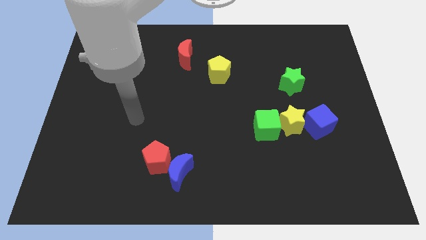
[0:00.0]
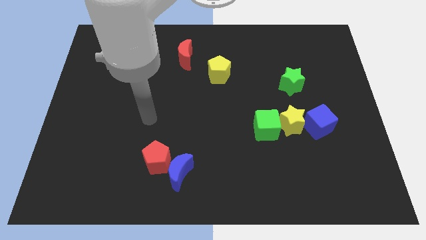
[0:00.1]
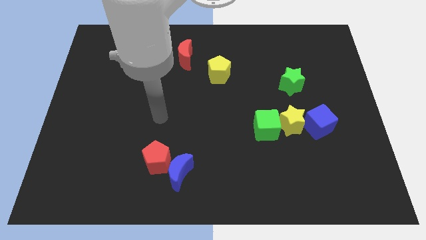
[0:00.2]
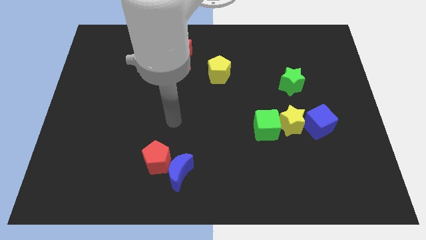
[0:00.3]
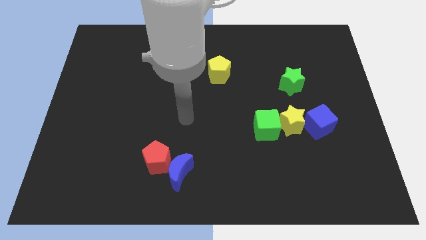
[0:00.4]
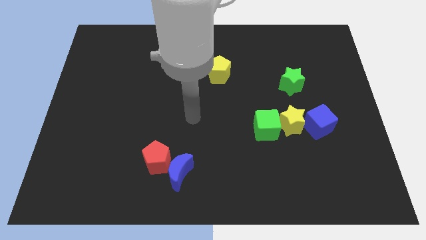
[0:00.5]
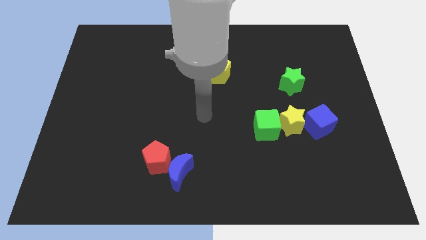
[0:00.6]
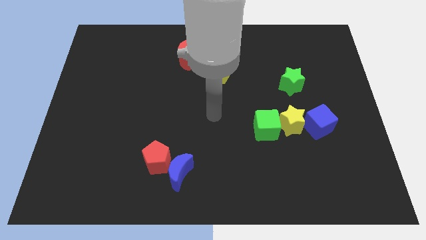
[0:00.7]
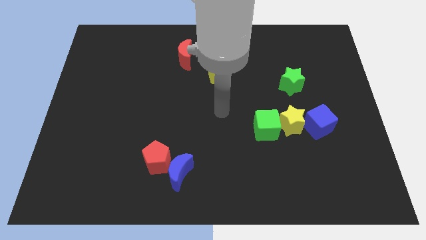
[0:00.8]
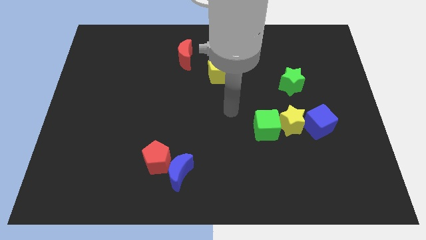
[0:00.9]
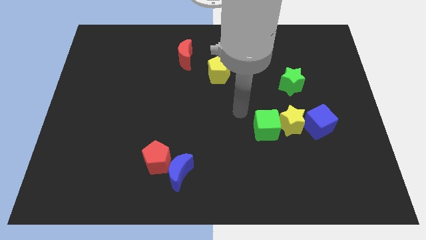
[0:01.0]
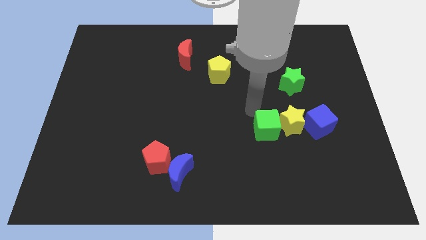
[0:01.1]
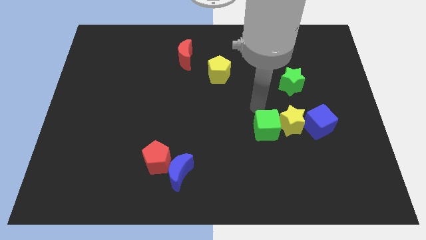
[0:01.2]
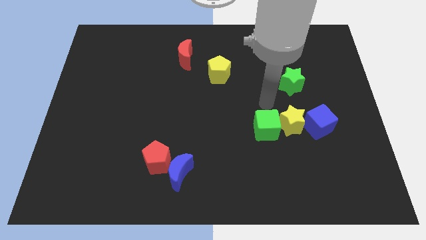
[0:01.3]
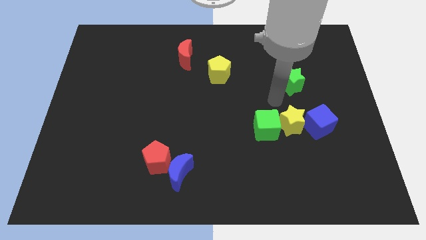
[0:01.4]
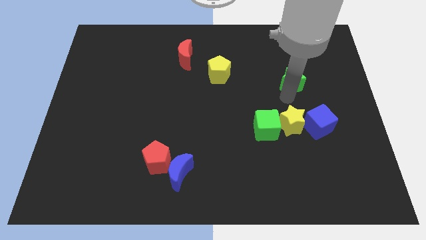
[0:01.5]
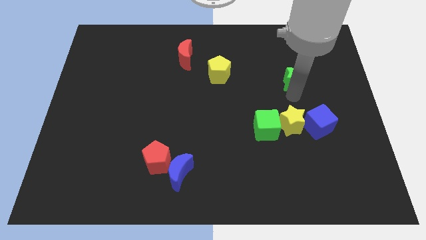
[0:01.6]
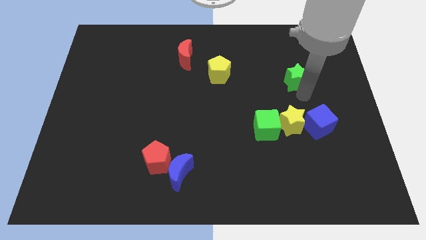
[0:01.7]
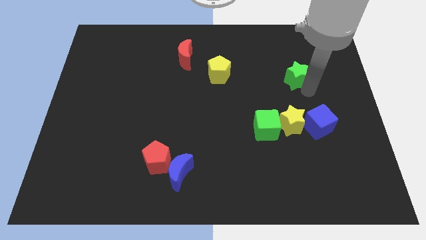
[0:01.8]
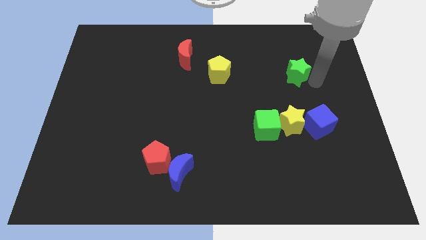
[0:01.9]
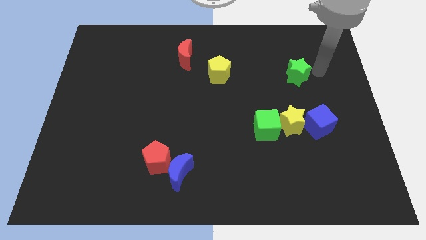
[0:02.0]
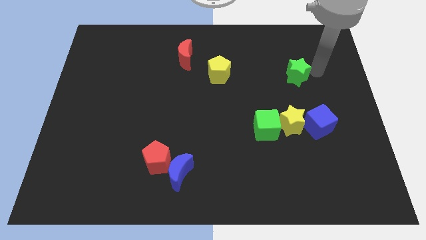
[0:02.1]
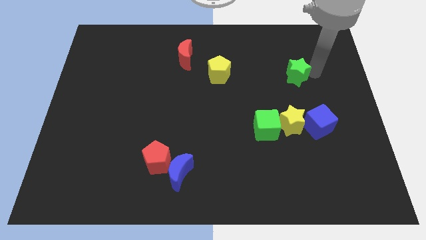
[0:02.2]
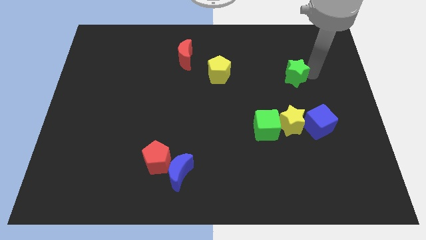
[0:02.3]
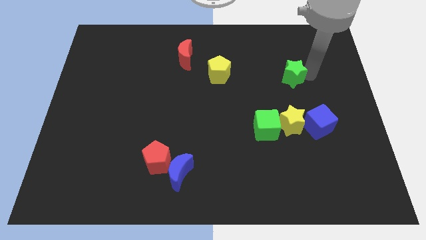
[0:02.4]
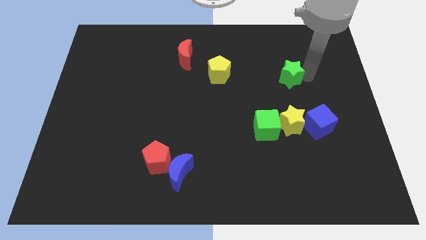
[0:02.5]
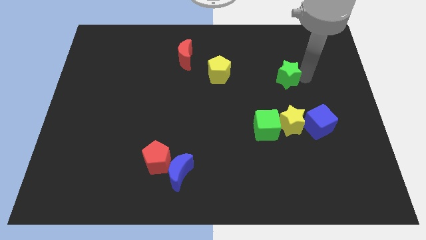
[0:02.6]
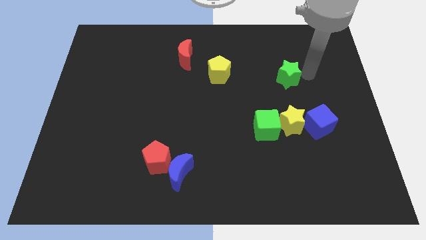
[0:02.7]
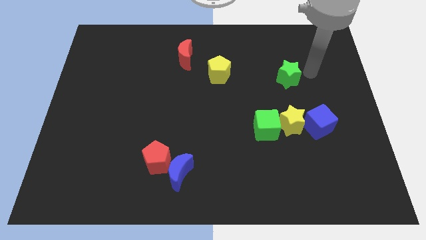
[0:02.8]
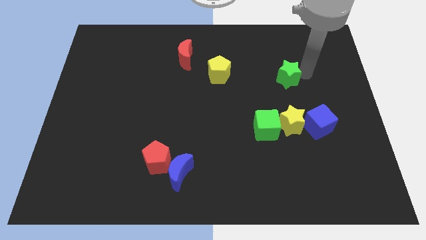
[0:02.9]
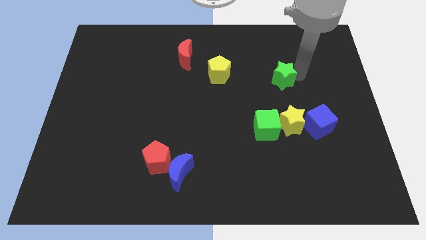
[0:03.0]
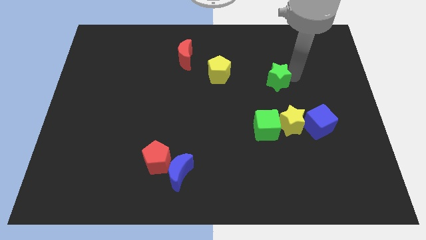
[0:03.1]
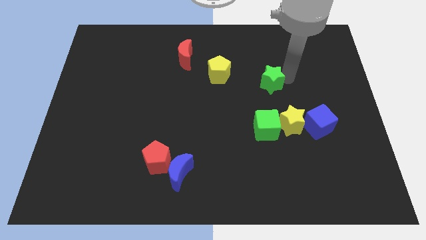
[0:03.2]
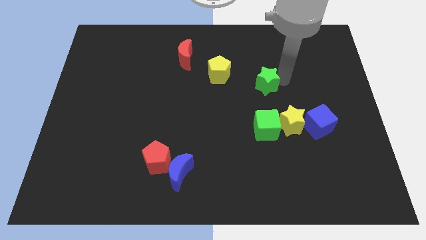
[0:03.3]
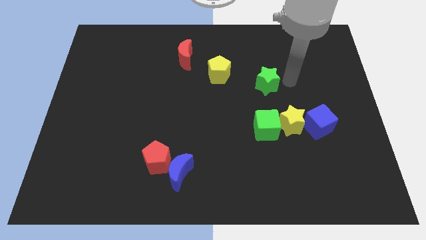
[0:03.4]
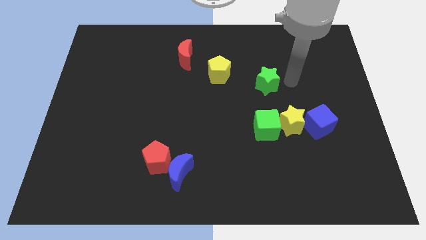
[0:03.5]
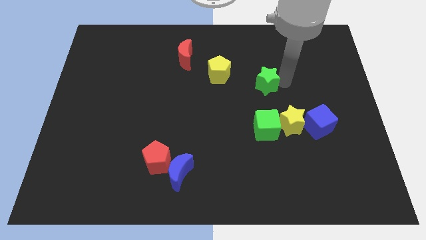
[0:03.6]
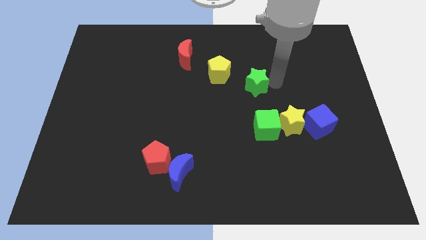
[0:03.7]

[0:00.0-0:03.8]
move the green star a little bit left

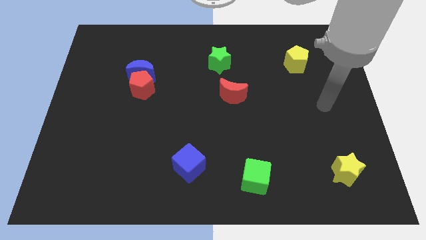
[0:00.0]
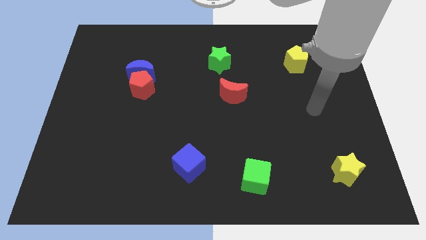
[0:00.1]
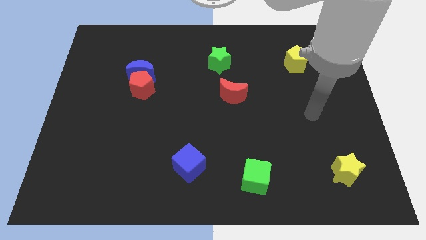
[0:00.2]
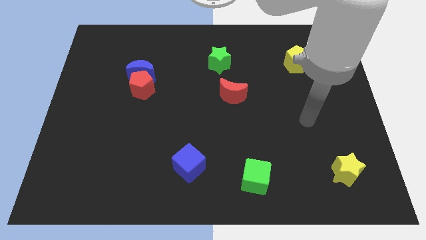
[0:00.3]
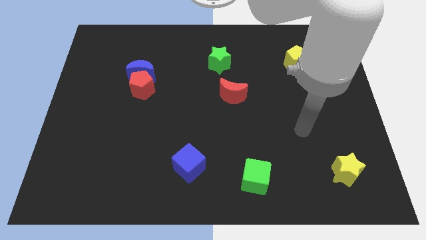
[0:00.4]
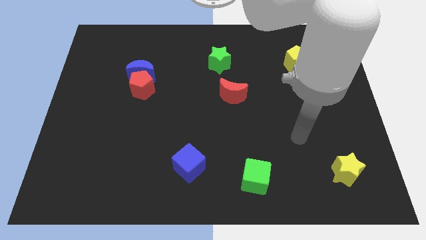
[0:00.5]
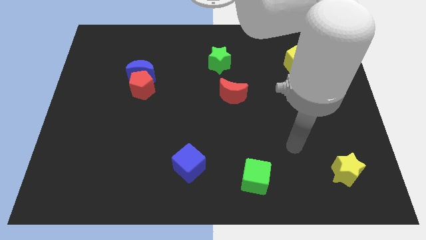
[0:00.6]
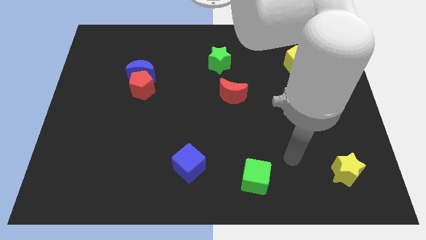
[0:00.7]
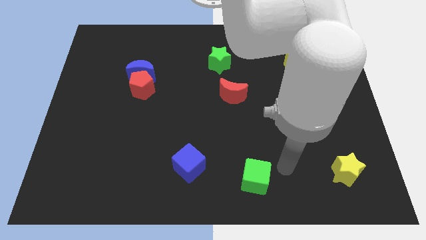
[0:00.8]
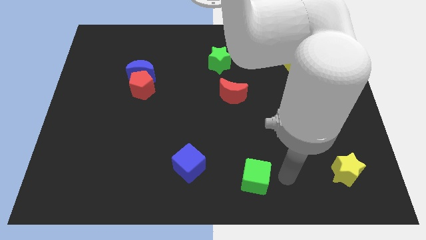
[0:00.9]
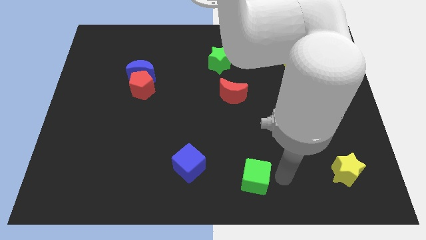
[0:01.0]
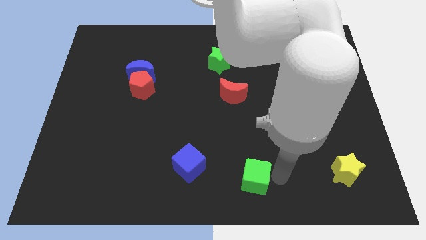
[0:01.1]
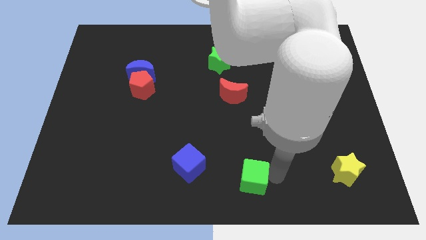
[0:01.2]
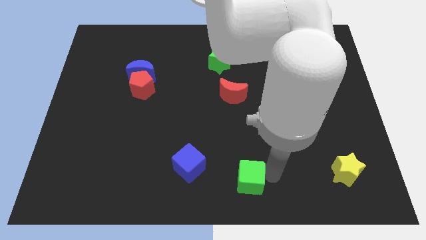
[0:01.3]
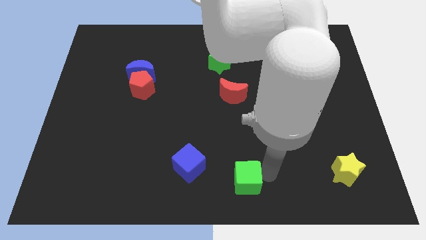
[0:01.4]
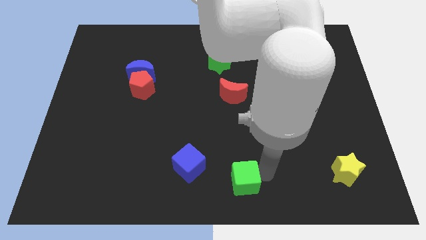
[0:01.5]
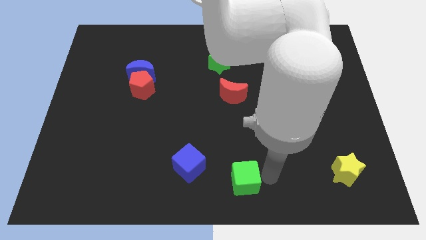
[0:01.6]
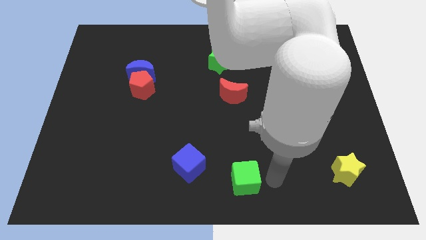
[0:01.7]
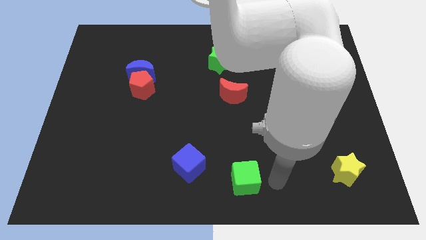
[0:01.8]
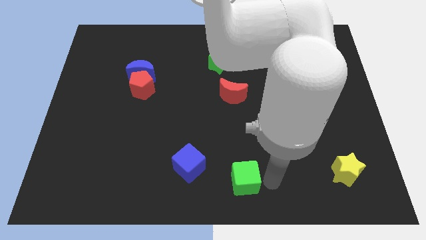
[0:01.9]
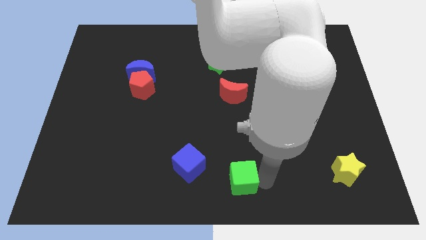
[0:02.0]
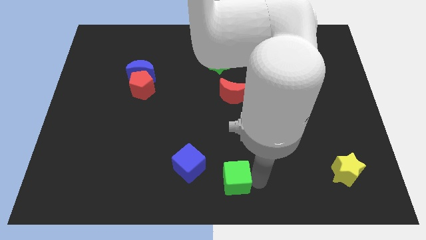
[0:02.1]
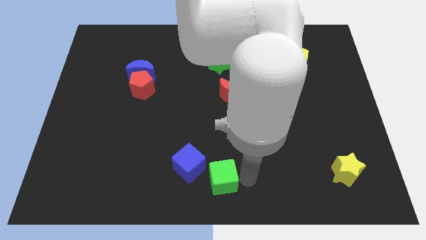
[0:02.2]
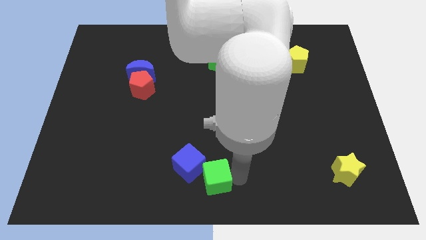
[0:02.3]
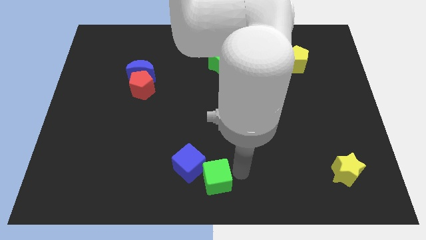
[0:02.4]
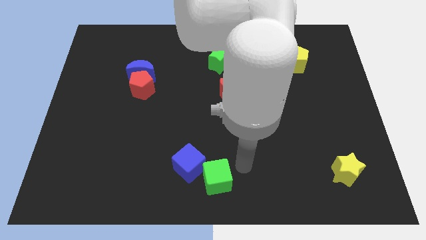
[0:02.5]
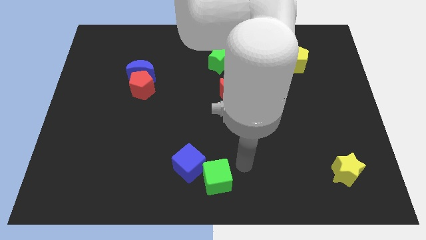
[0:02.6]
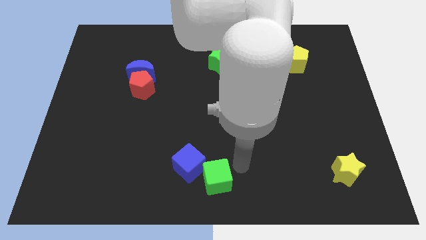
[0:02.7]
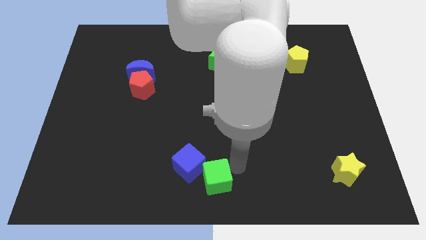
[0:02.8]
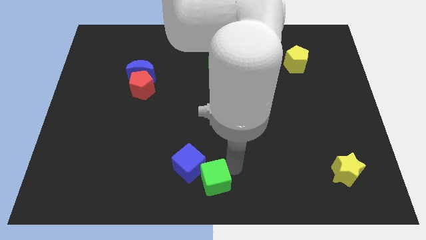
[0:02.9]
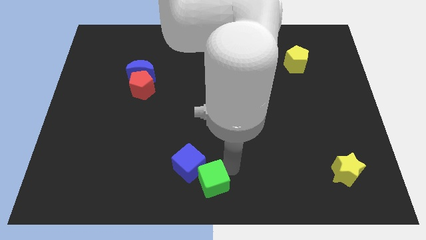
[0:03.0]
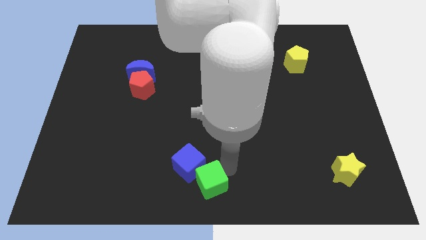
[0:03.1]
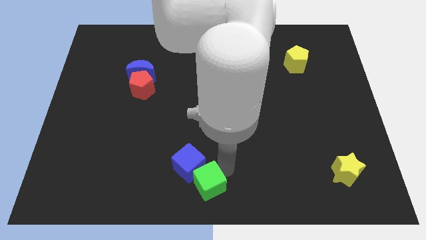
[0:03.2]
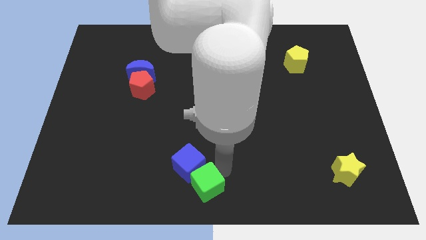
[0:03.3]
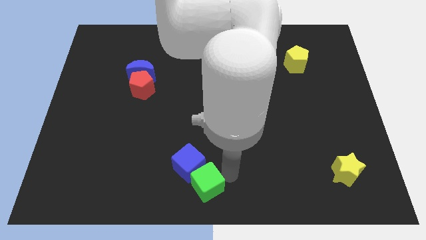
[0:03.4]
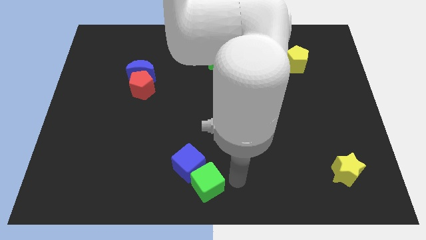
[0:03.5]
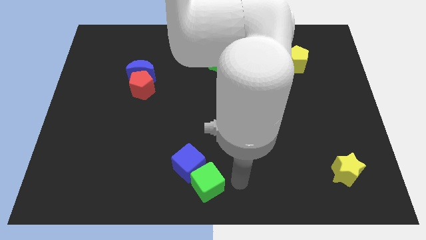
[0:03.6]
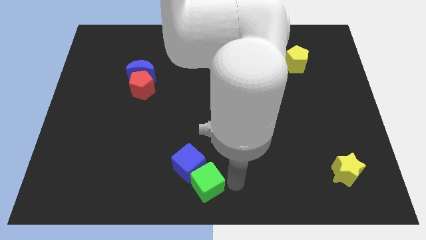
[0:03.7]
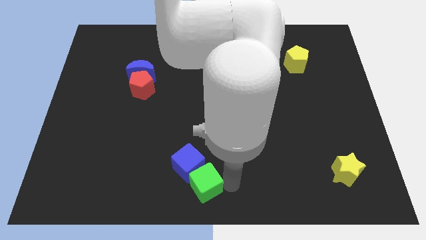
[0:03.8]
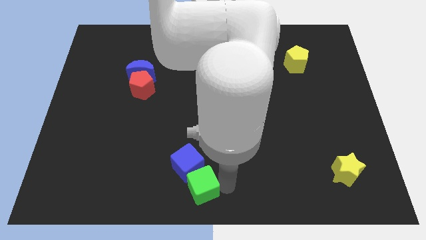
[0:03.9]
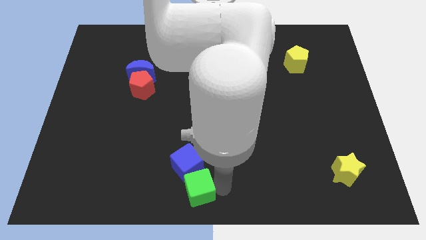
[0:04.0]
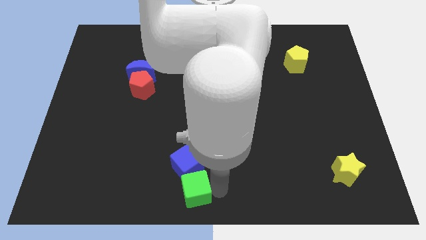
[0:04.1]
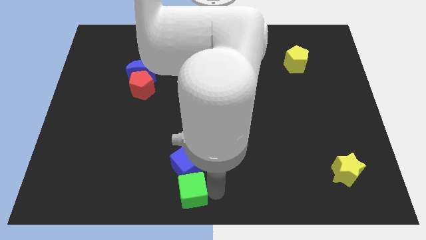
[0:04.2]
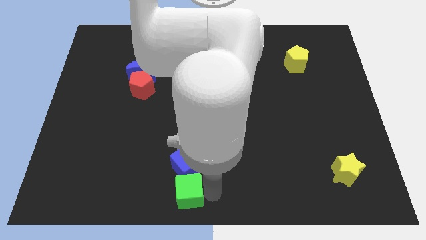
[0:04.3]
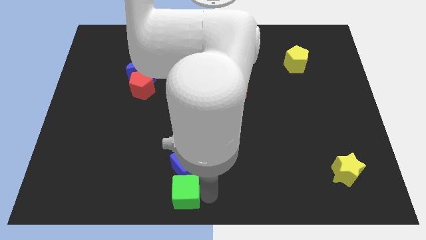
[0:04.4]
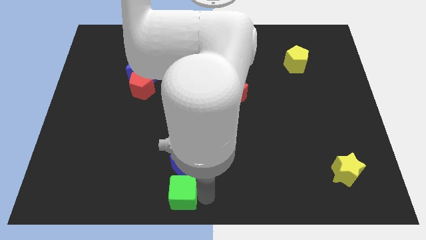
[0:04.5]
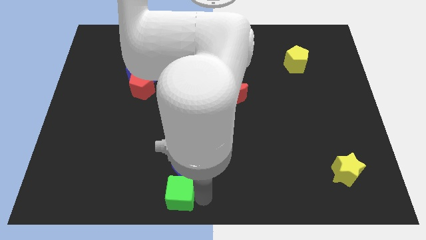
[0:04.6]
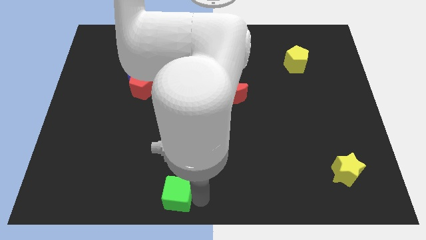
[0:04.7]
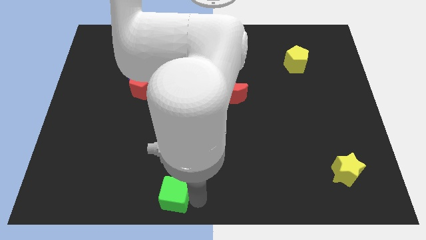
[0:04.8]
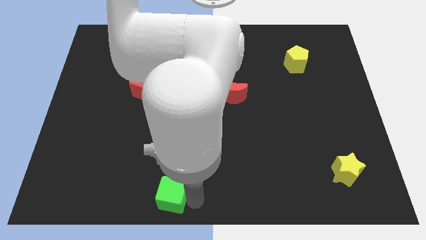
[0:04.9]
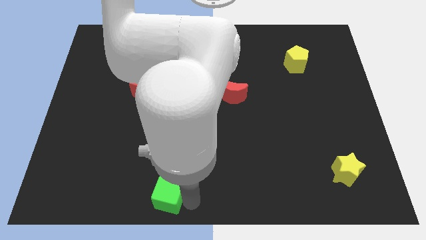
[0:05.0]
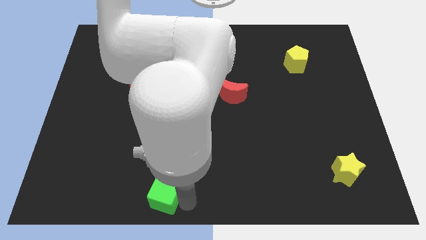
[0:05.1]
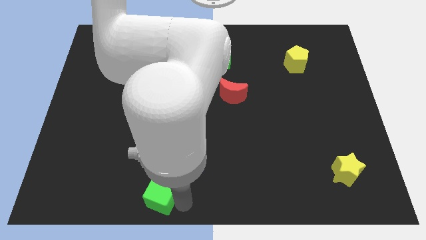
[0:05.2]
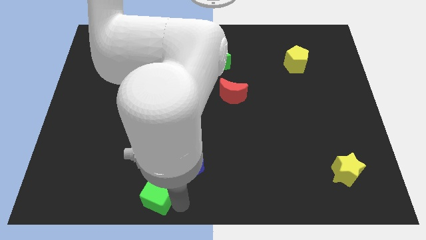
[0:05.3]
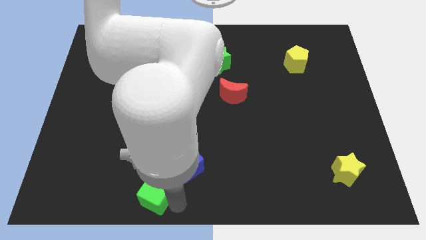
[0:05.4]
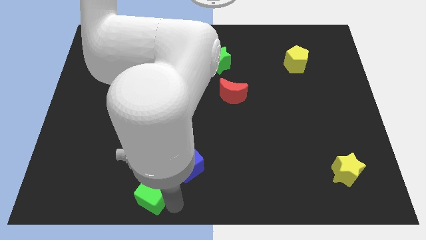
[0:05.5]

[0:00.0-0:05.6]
slide the green cube left
